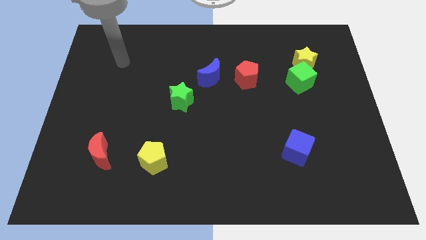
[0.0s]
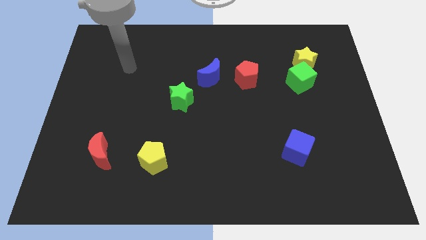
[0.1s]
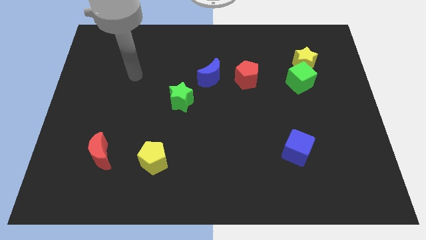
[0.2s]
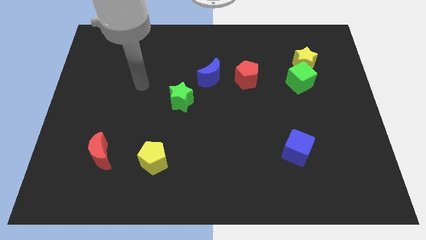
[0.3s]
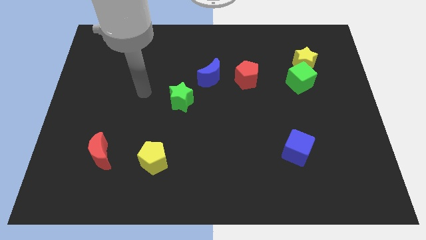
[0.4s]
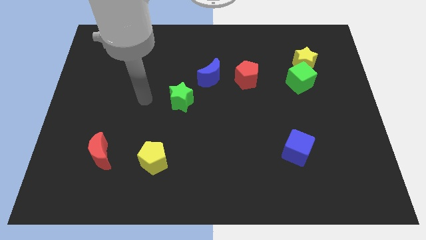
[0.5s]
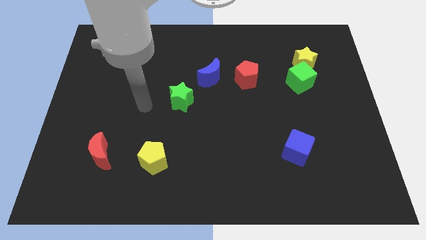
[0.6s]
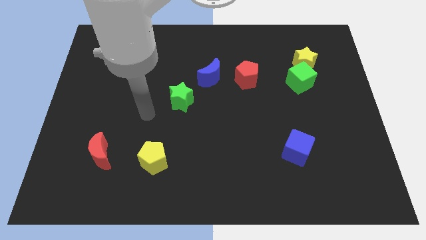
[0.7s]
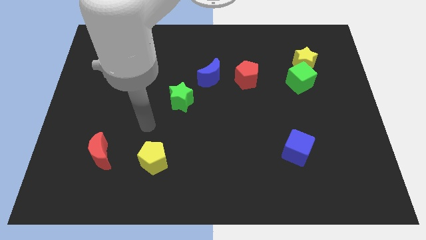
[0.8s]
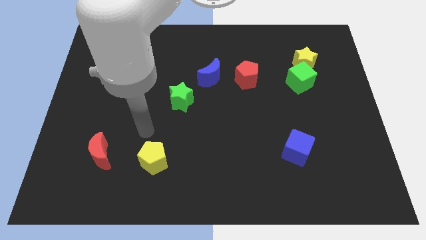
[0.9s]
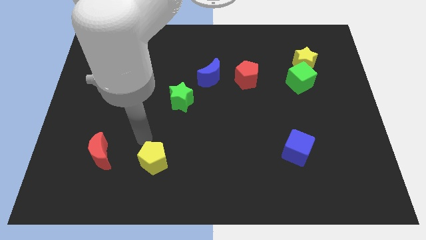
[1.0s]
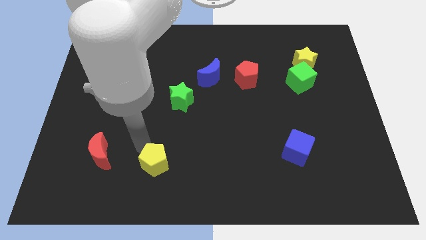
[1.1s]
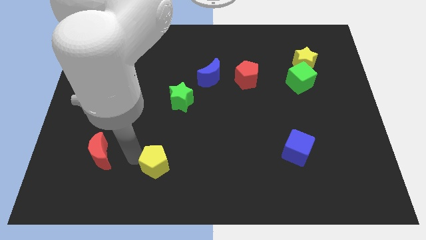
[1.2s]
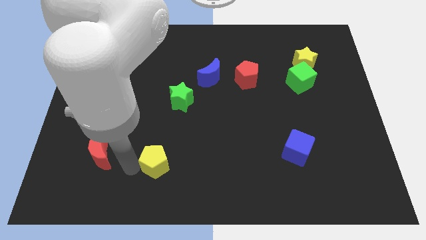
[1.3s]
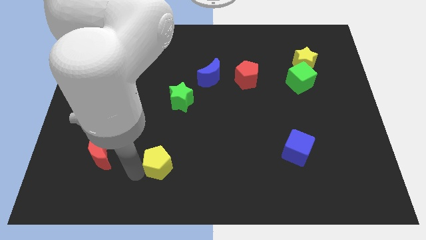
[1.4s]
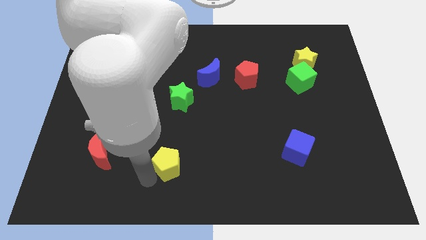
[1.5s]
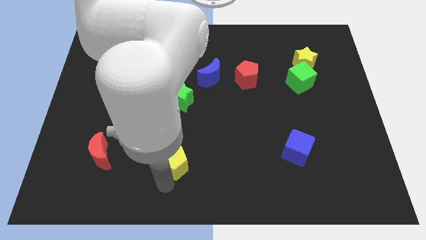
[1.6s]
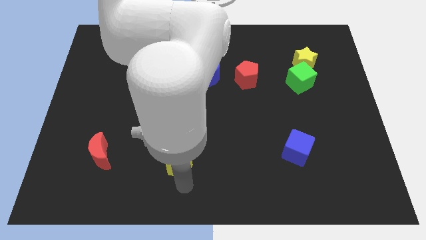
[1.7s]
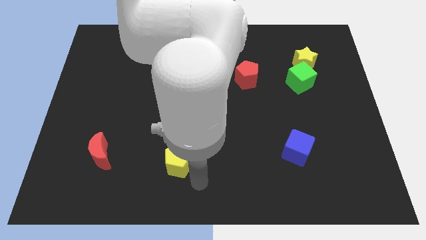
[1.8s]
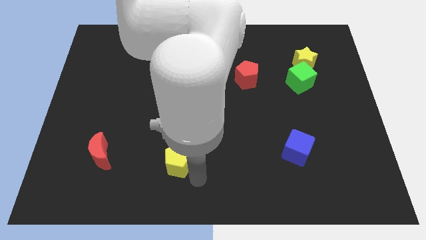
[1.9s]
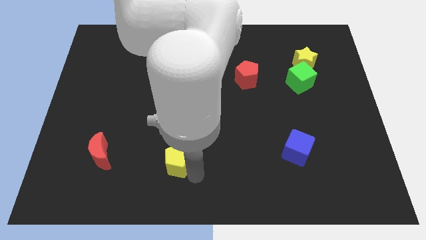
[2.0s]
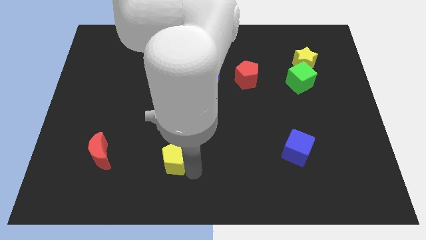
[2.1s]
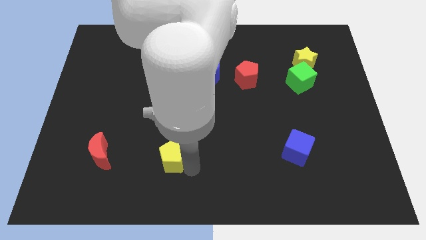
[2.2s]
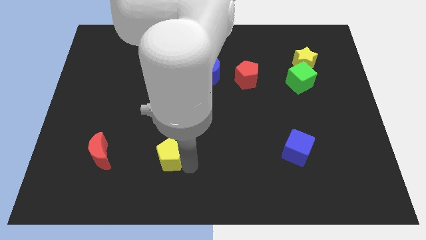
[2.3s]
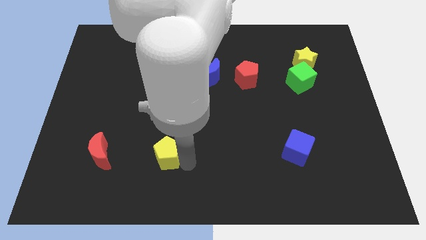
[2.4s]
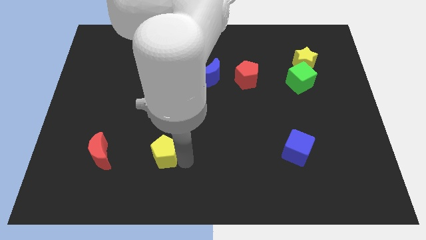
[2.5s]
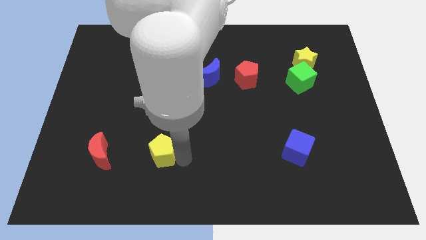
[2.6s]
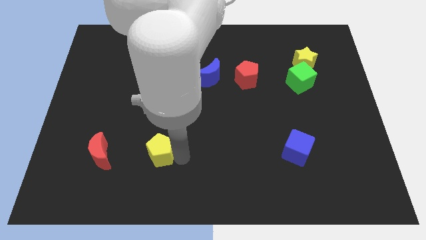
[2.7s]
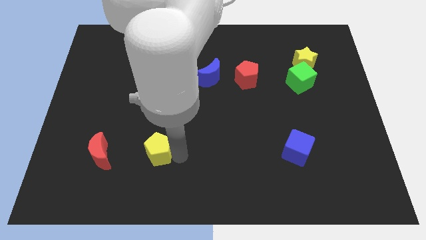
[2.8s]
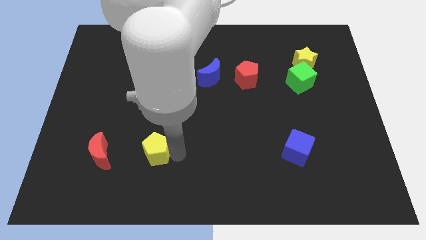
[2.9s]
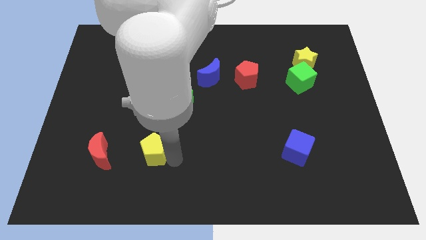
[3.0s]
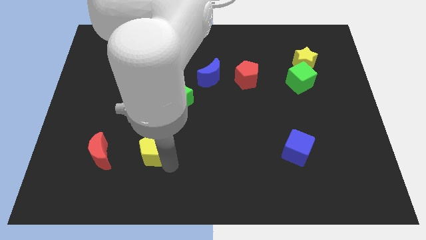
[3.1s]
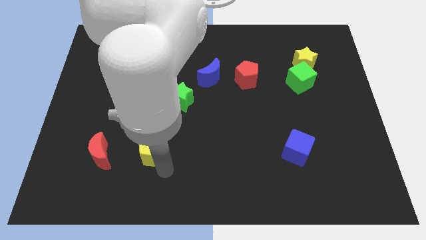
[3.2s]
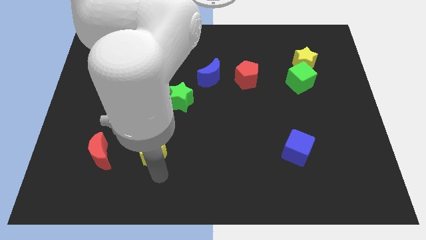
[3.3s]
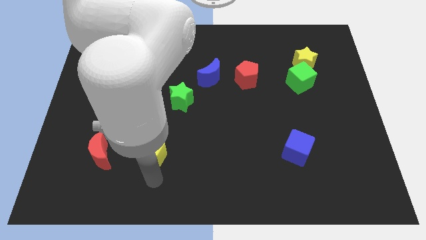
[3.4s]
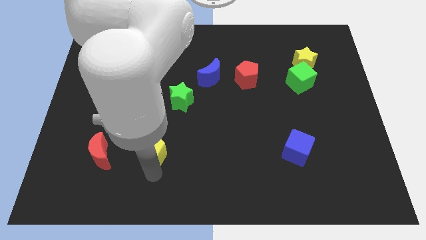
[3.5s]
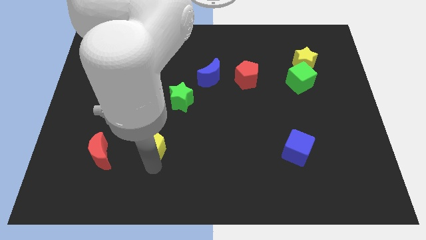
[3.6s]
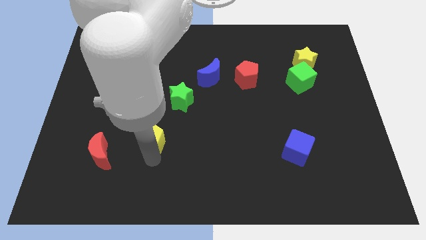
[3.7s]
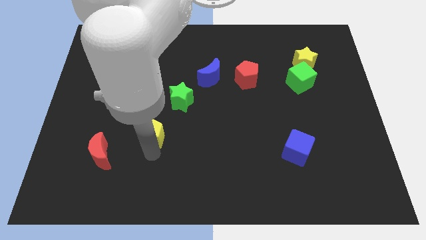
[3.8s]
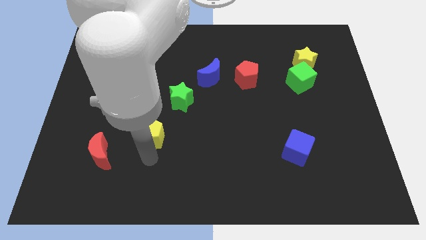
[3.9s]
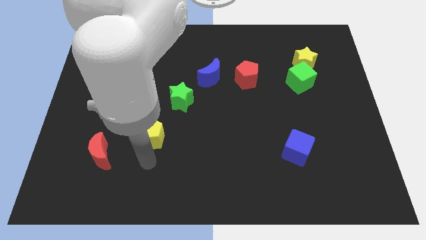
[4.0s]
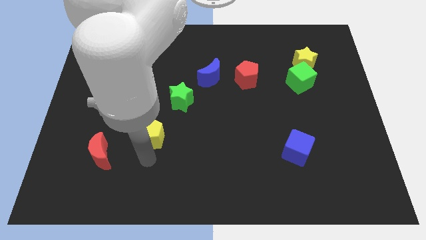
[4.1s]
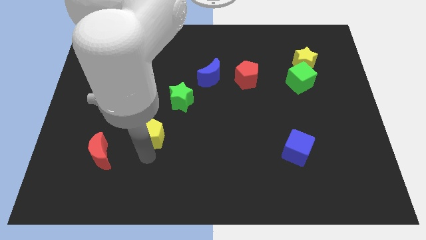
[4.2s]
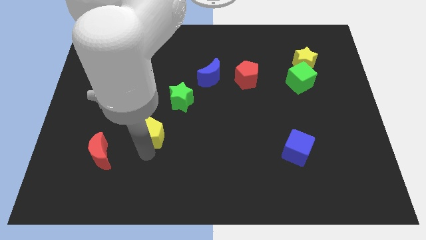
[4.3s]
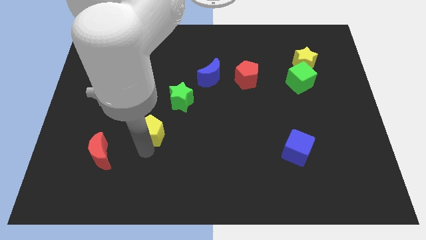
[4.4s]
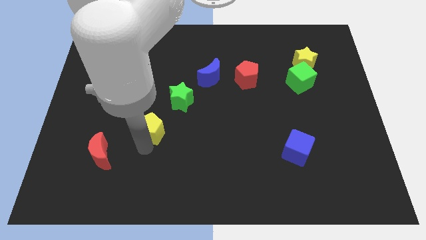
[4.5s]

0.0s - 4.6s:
move the yellow pentagon up a little bit

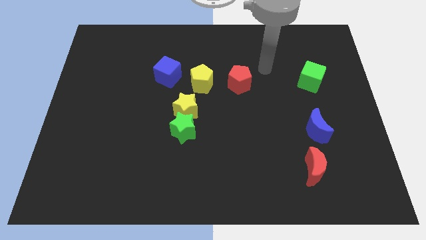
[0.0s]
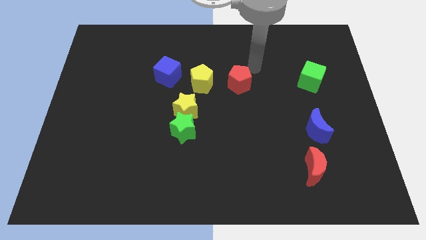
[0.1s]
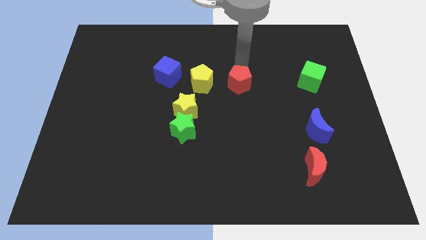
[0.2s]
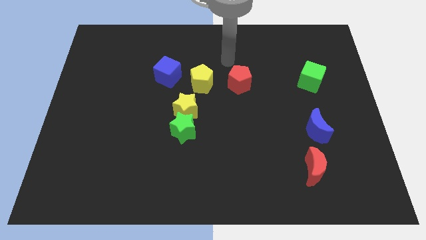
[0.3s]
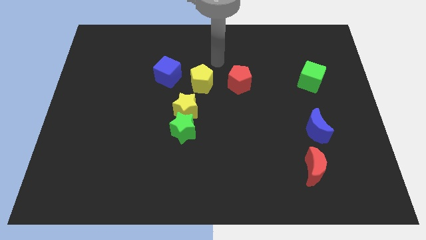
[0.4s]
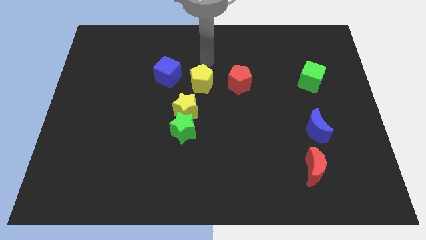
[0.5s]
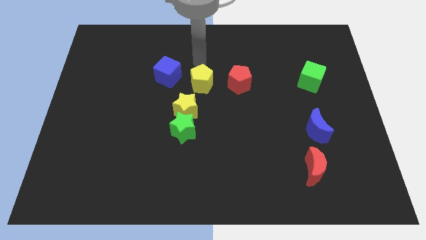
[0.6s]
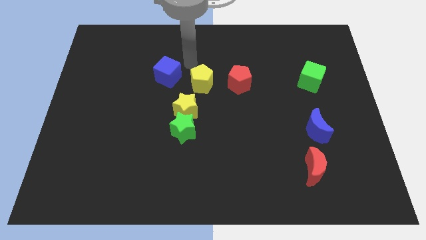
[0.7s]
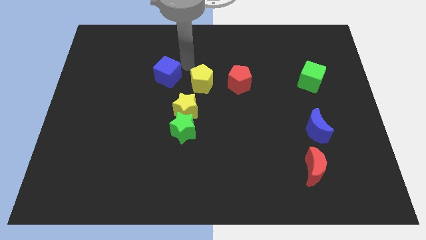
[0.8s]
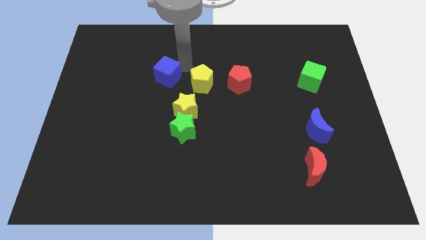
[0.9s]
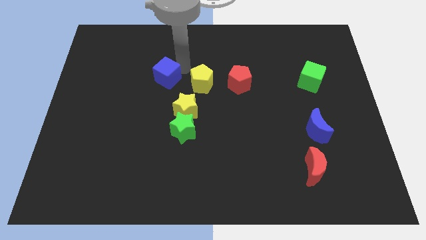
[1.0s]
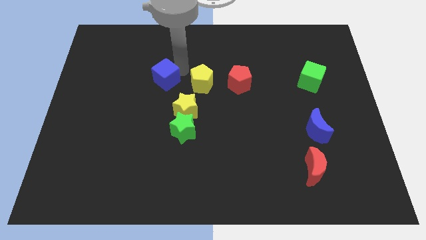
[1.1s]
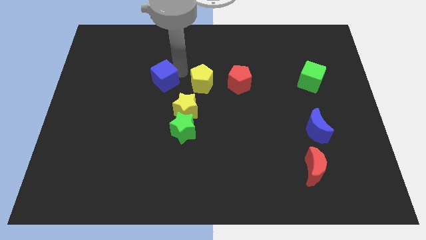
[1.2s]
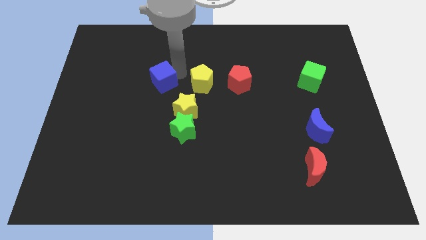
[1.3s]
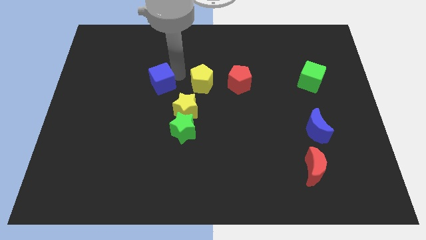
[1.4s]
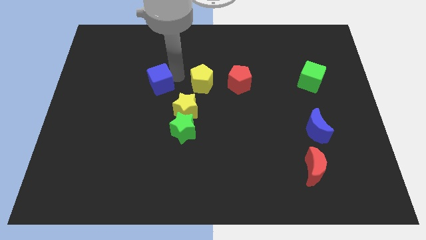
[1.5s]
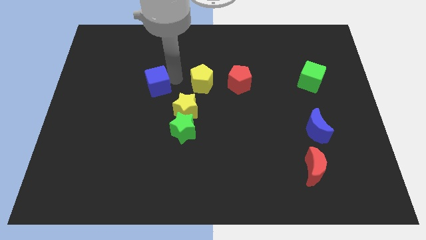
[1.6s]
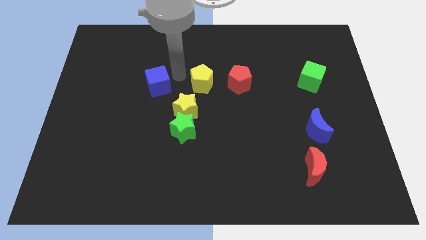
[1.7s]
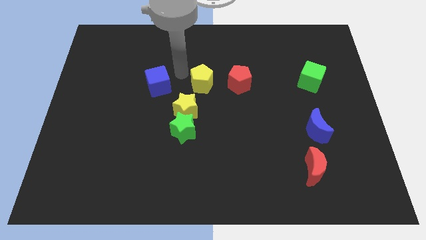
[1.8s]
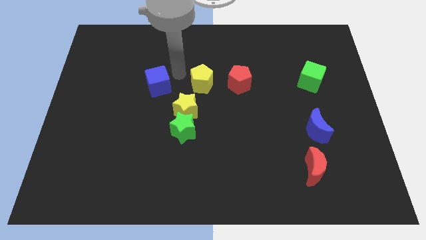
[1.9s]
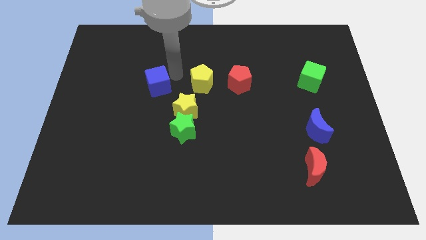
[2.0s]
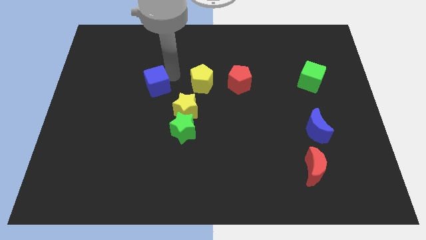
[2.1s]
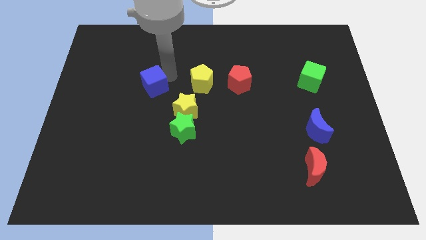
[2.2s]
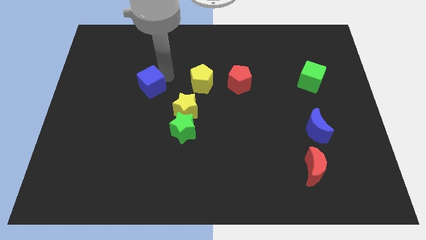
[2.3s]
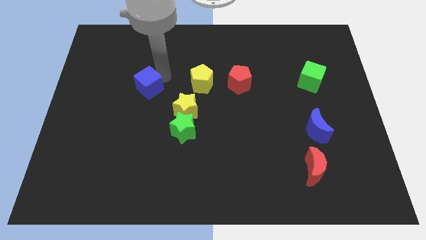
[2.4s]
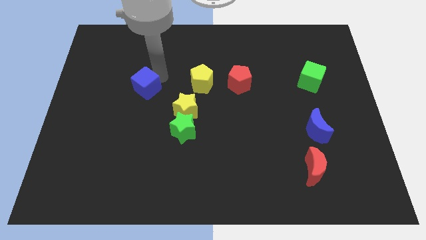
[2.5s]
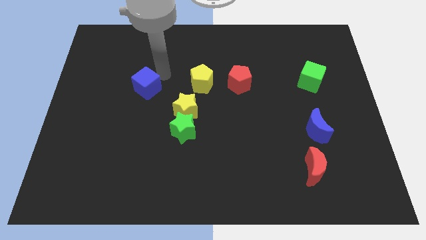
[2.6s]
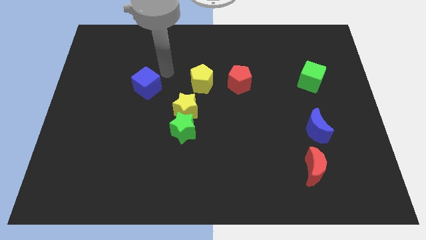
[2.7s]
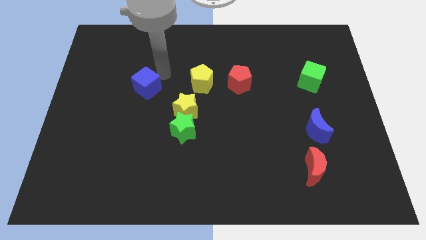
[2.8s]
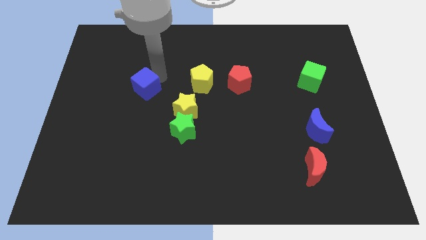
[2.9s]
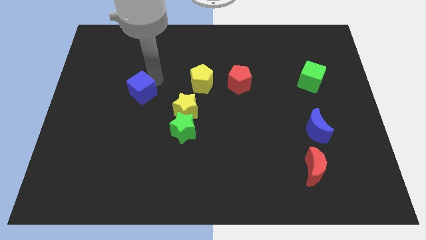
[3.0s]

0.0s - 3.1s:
slightly move the blue cube diagonally down and left

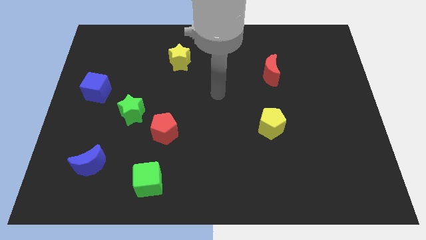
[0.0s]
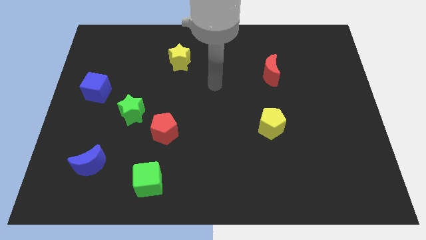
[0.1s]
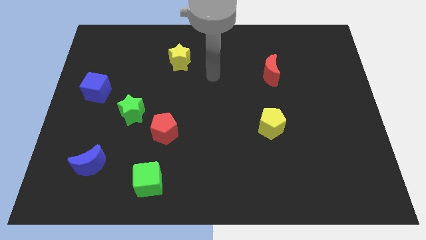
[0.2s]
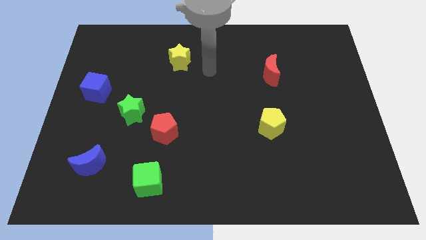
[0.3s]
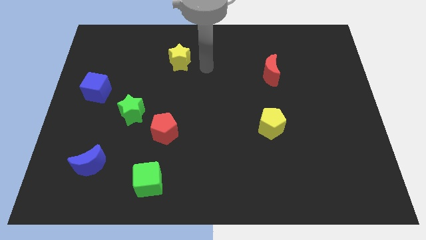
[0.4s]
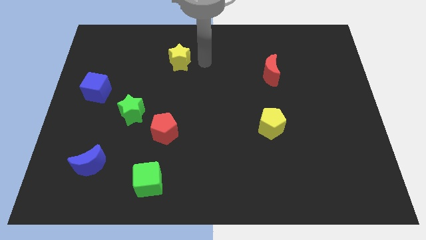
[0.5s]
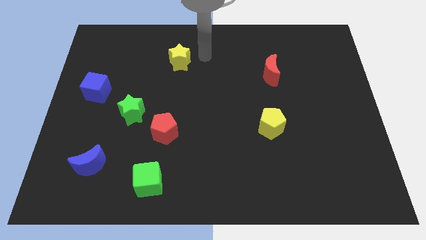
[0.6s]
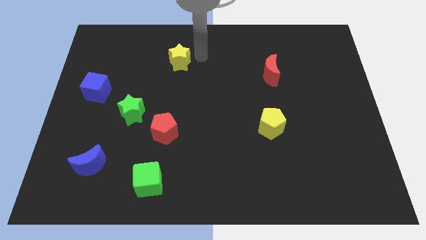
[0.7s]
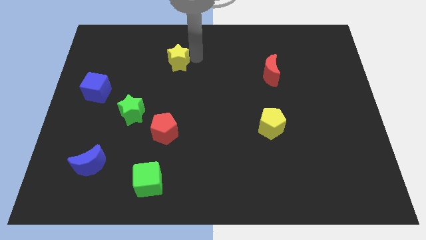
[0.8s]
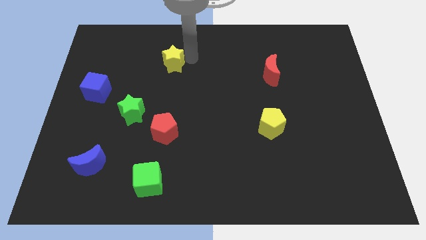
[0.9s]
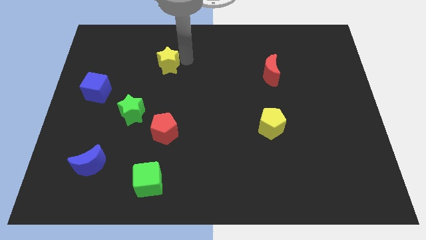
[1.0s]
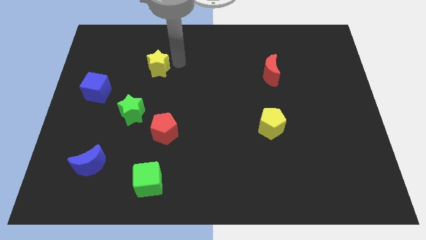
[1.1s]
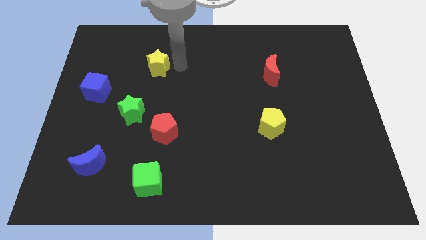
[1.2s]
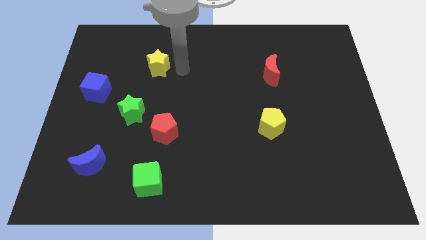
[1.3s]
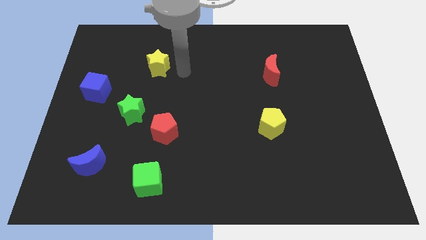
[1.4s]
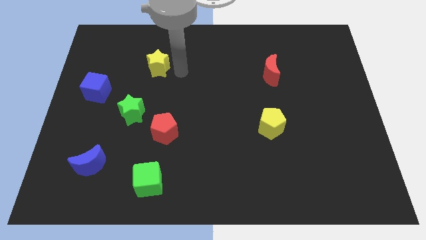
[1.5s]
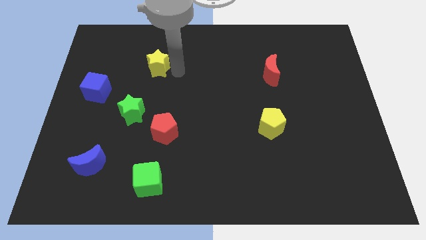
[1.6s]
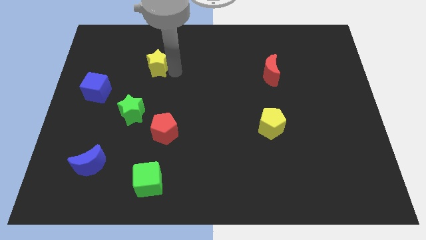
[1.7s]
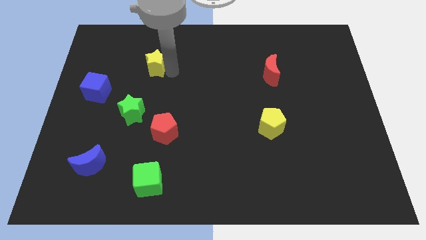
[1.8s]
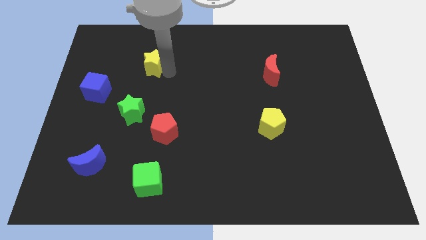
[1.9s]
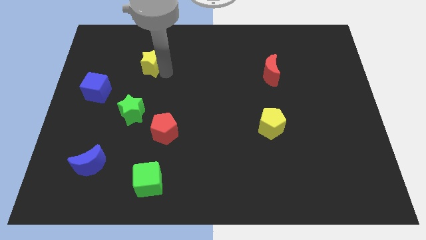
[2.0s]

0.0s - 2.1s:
slide the yellow star a bit left
